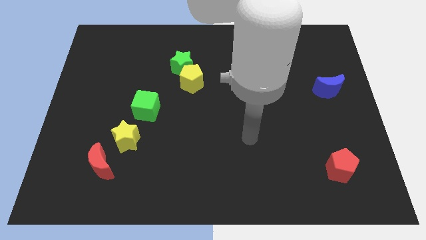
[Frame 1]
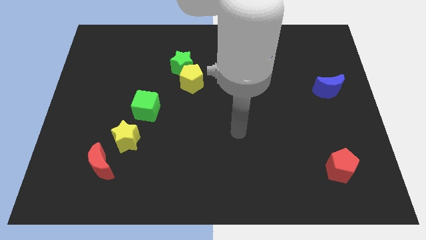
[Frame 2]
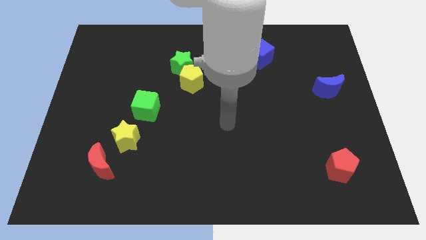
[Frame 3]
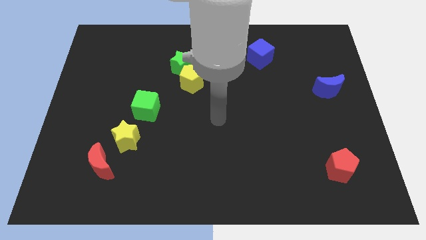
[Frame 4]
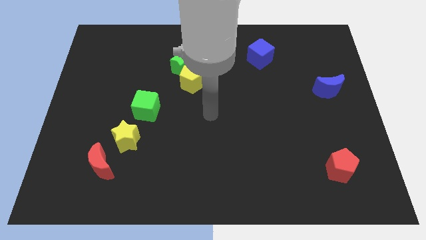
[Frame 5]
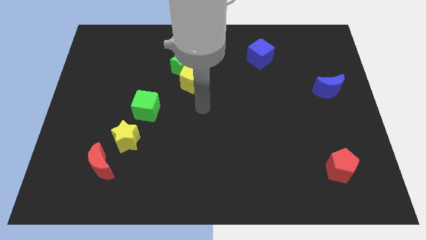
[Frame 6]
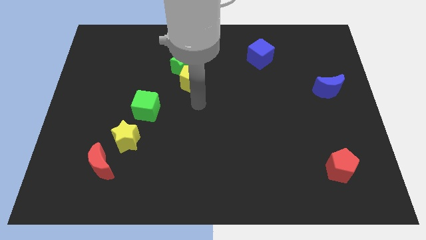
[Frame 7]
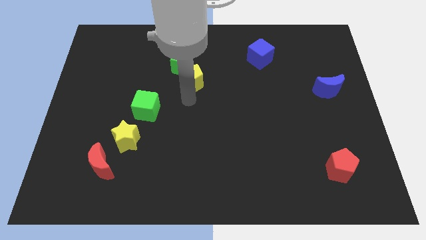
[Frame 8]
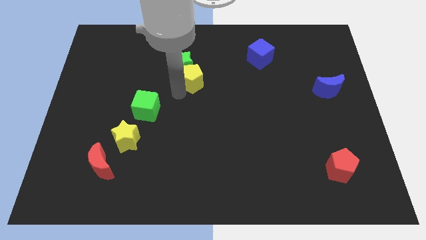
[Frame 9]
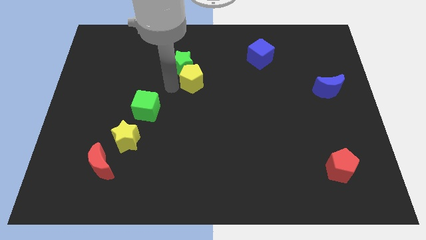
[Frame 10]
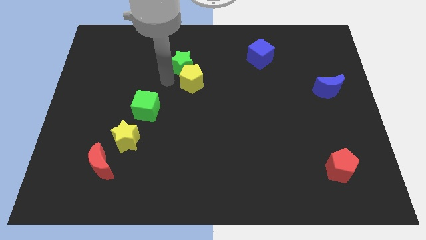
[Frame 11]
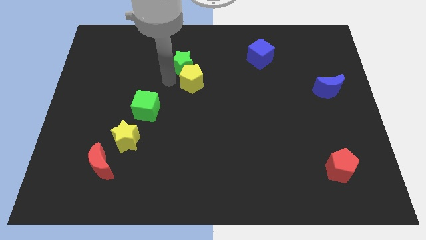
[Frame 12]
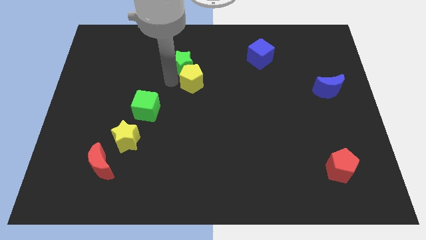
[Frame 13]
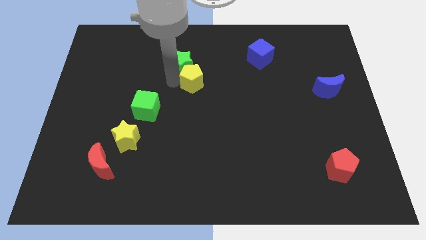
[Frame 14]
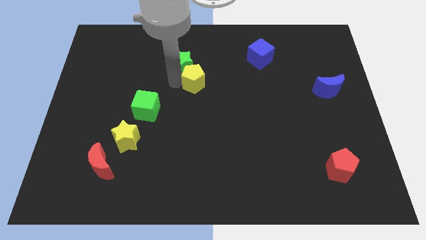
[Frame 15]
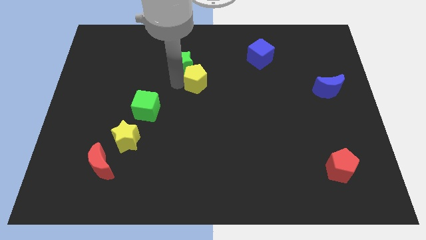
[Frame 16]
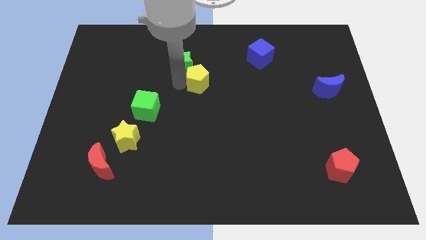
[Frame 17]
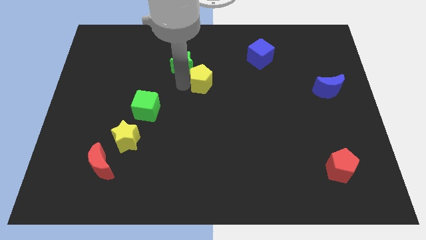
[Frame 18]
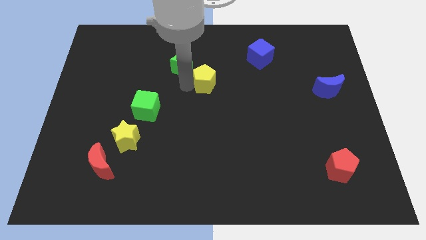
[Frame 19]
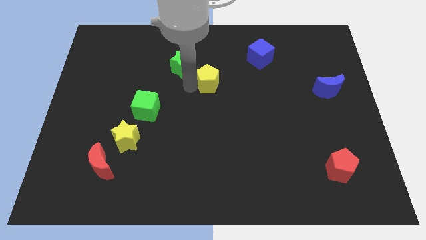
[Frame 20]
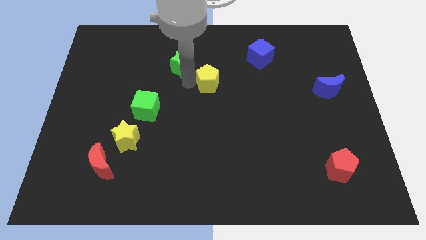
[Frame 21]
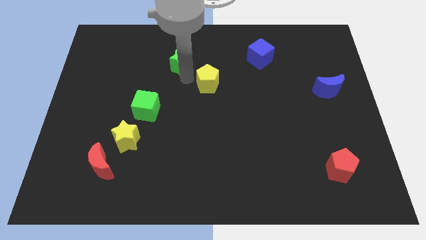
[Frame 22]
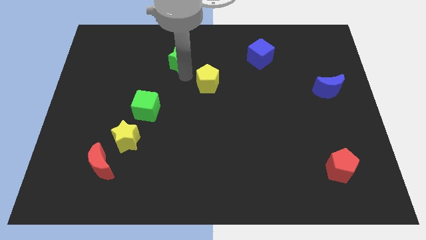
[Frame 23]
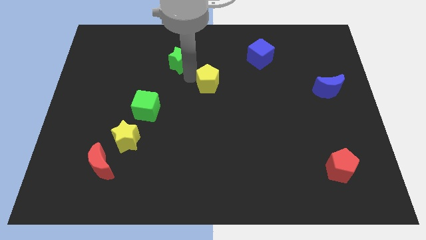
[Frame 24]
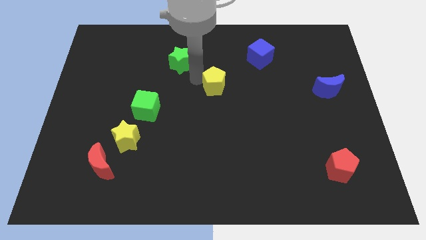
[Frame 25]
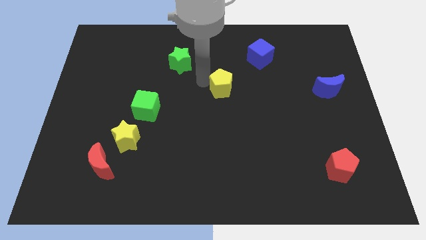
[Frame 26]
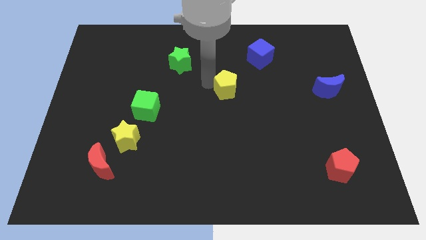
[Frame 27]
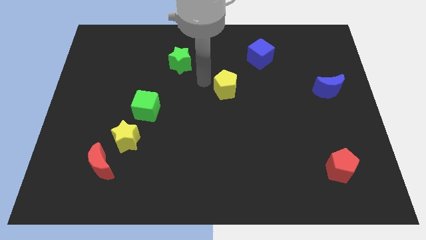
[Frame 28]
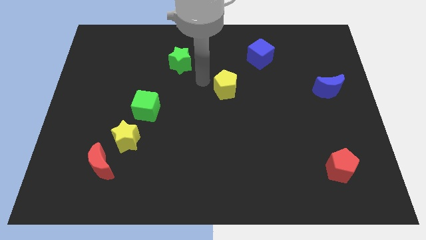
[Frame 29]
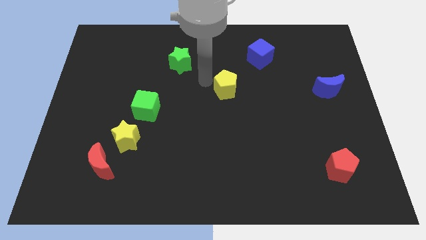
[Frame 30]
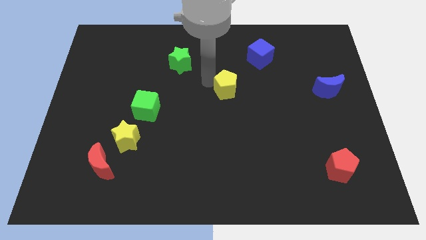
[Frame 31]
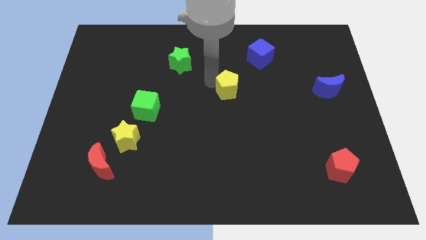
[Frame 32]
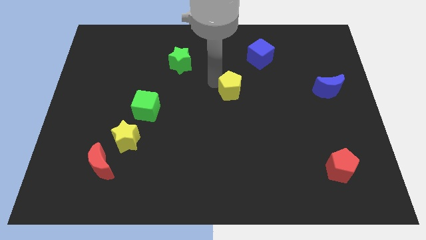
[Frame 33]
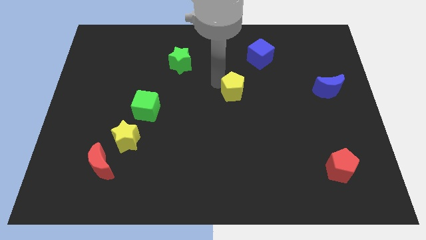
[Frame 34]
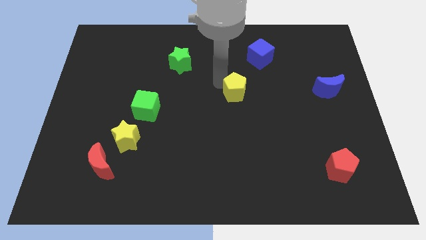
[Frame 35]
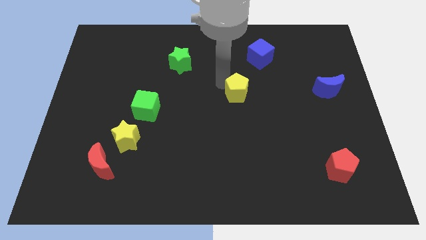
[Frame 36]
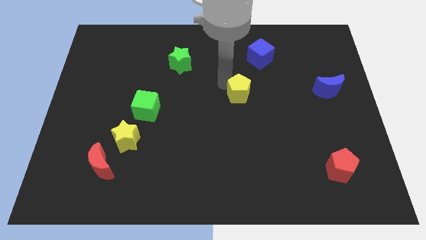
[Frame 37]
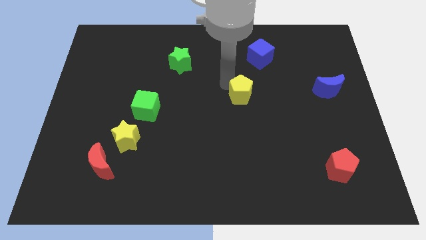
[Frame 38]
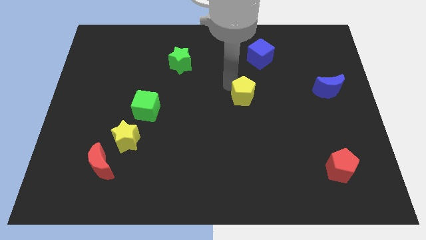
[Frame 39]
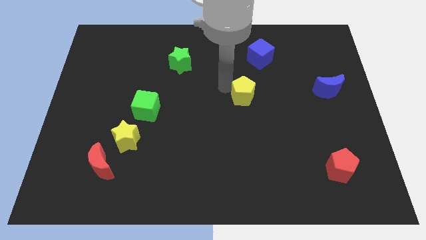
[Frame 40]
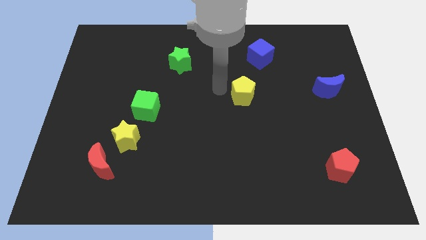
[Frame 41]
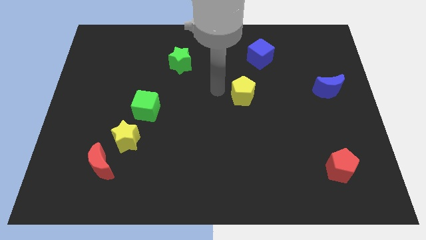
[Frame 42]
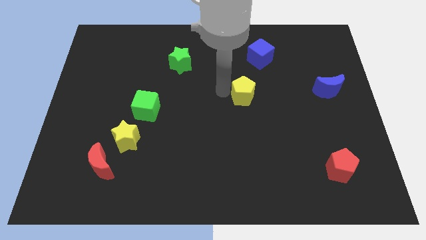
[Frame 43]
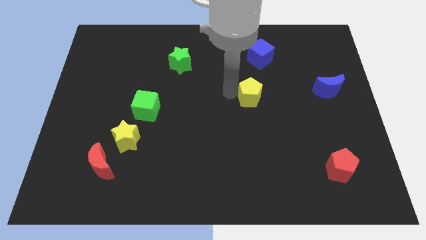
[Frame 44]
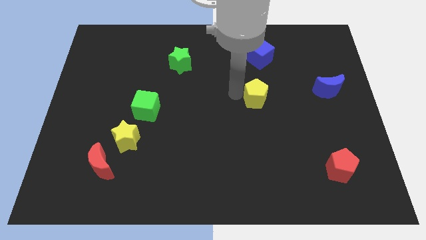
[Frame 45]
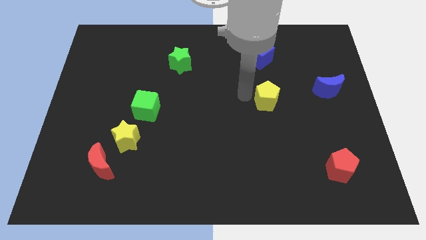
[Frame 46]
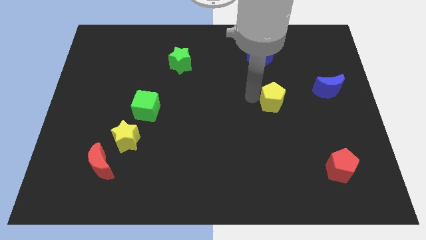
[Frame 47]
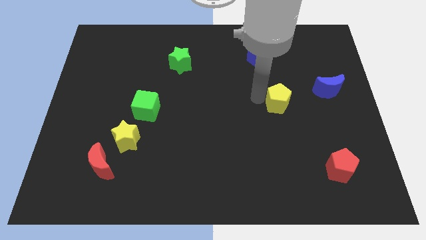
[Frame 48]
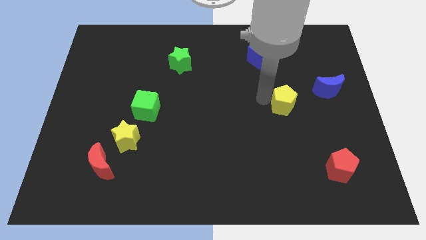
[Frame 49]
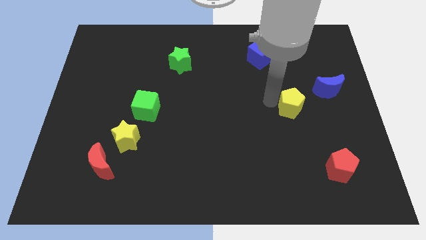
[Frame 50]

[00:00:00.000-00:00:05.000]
move the yellow pentagon to the bottom left side of the blue moon

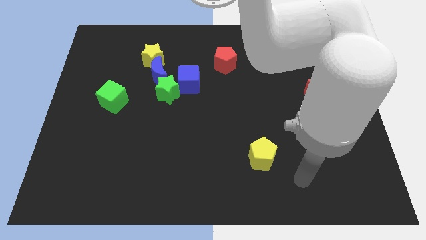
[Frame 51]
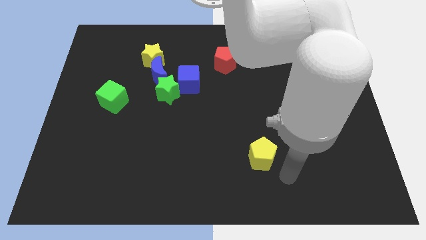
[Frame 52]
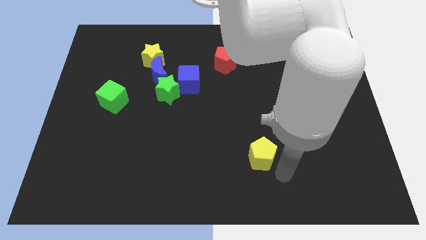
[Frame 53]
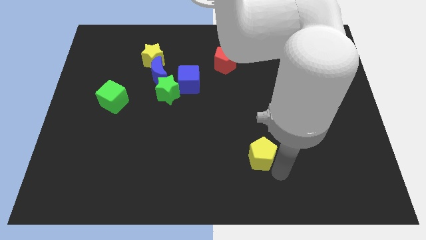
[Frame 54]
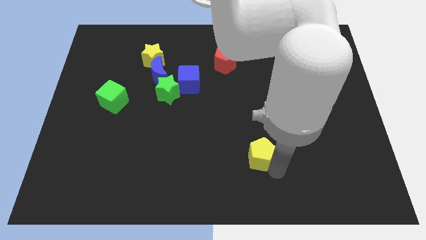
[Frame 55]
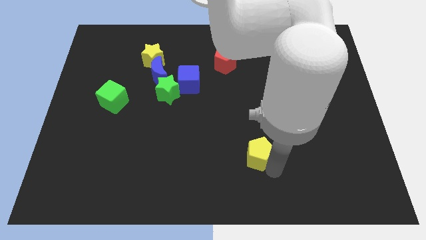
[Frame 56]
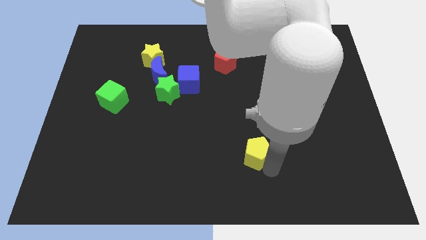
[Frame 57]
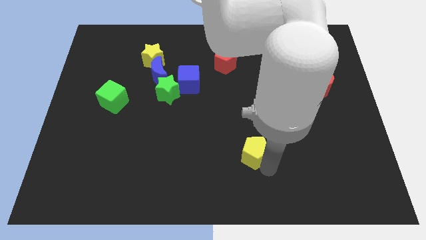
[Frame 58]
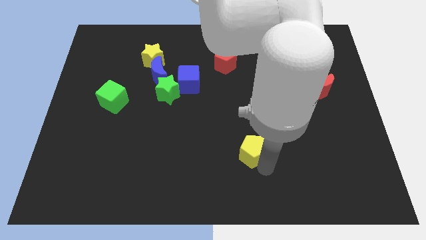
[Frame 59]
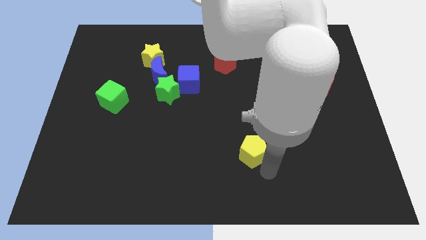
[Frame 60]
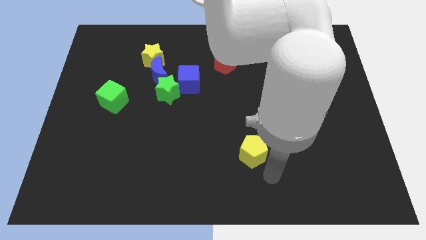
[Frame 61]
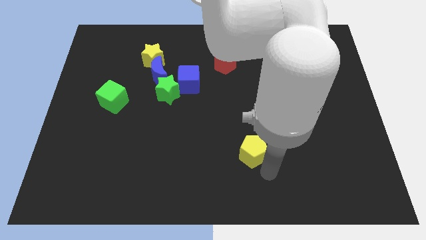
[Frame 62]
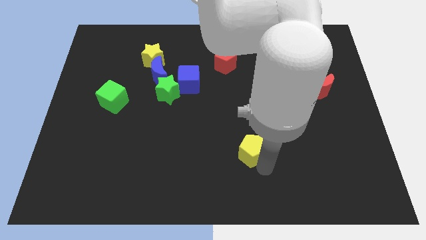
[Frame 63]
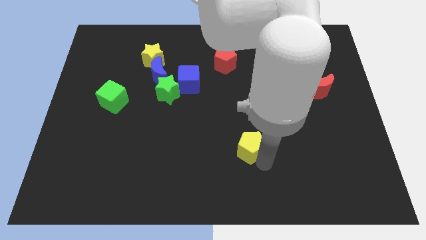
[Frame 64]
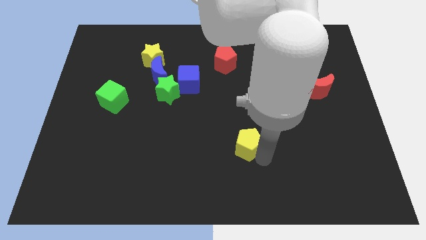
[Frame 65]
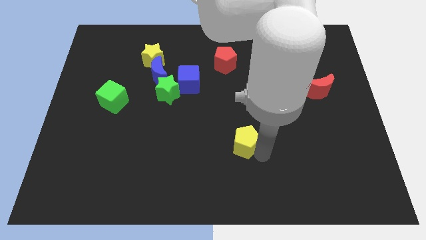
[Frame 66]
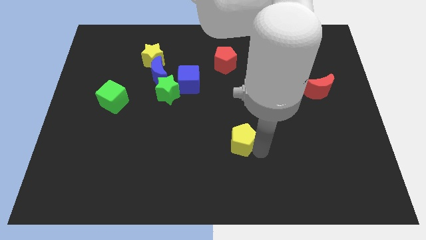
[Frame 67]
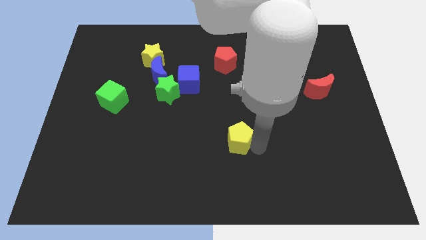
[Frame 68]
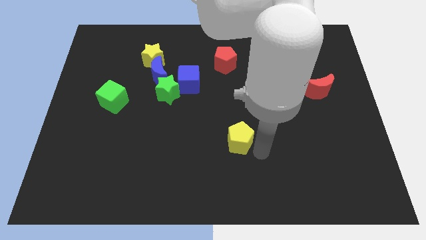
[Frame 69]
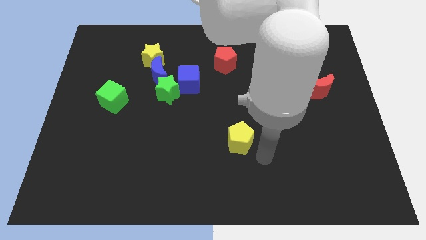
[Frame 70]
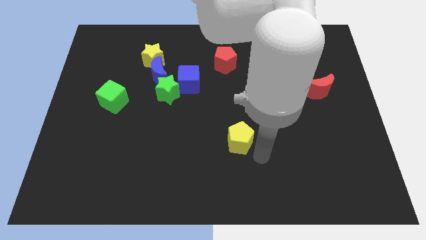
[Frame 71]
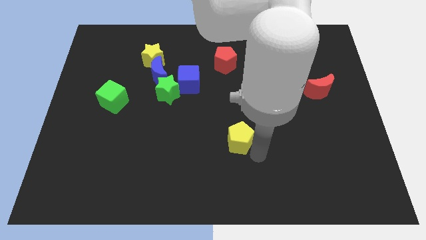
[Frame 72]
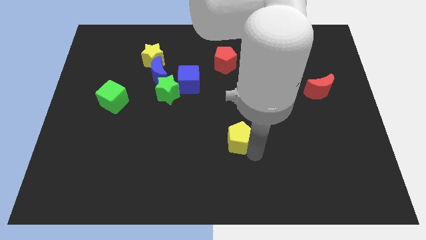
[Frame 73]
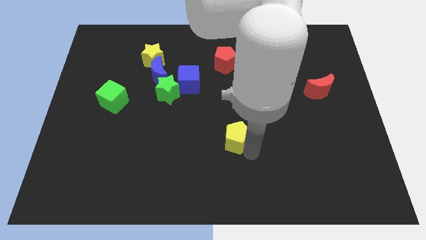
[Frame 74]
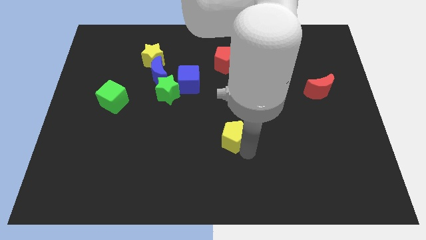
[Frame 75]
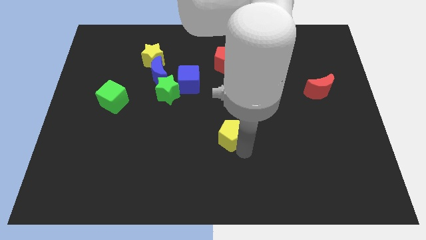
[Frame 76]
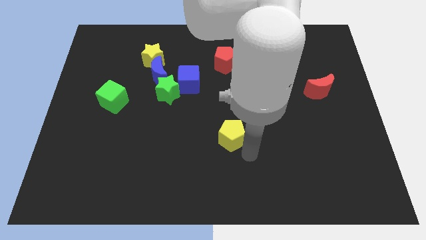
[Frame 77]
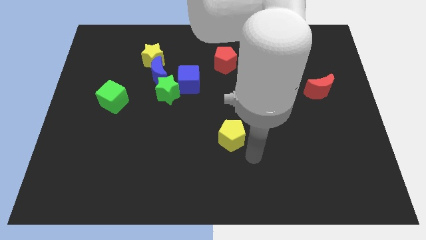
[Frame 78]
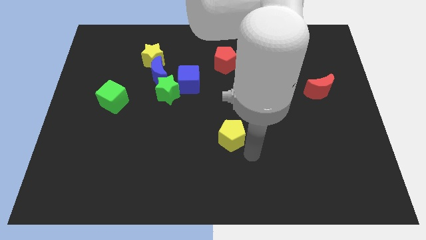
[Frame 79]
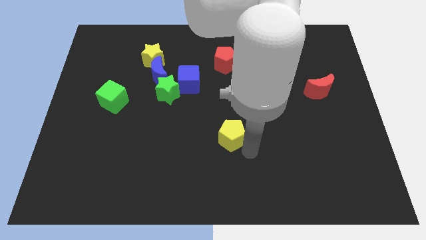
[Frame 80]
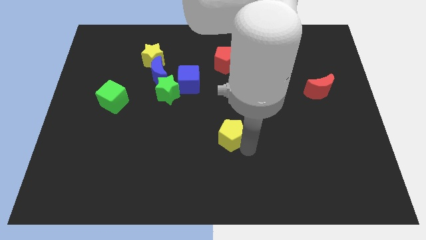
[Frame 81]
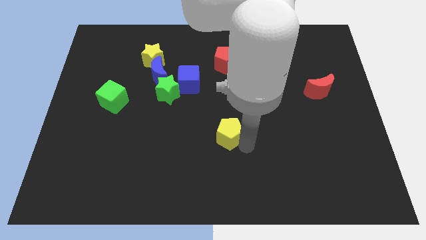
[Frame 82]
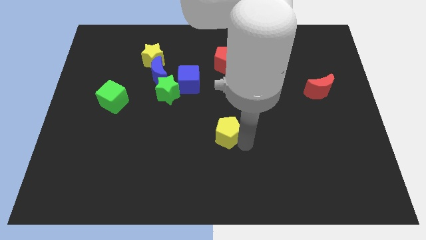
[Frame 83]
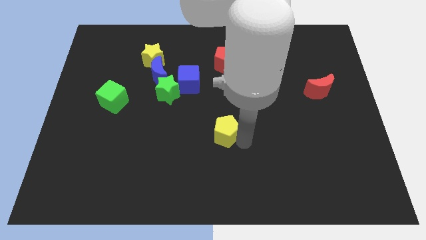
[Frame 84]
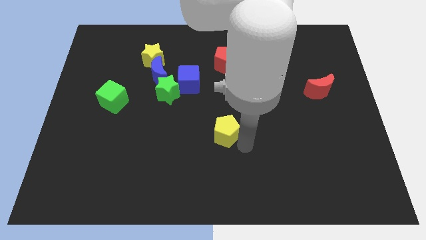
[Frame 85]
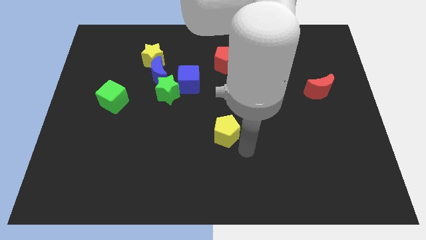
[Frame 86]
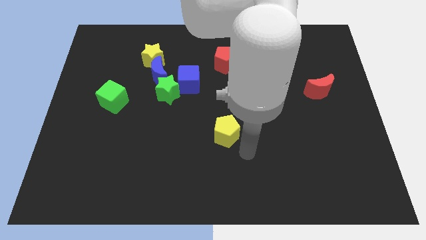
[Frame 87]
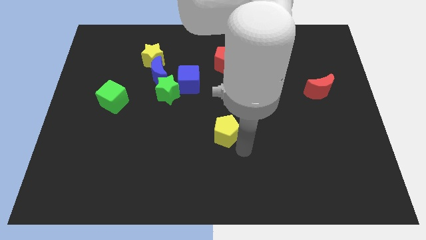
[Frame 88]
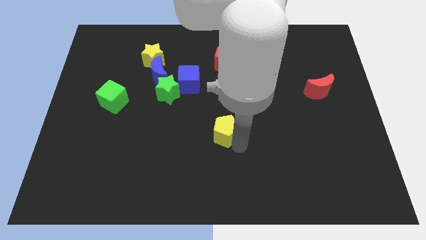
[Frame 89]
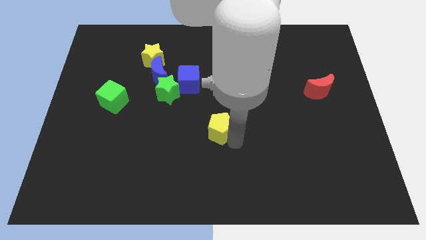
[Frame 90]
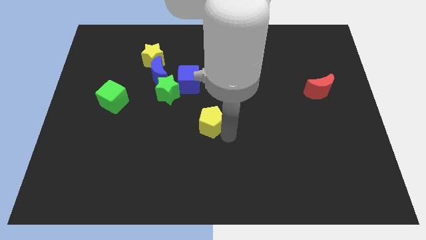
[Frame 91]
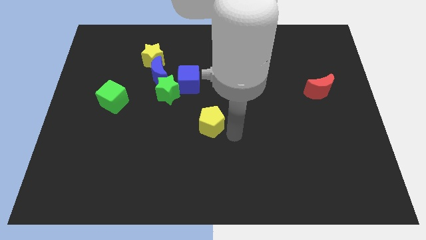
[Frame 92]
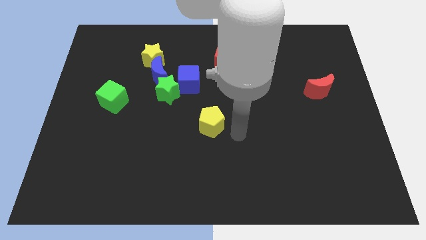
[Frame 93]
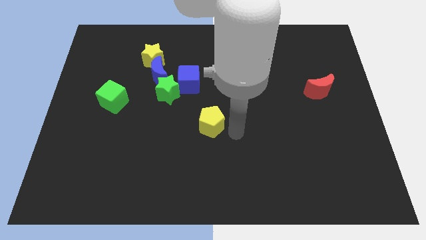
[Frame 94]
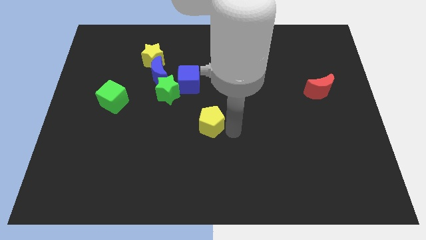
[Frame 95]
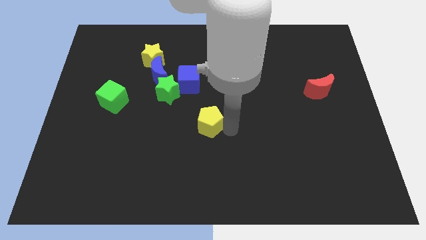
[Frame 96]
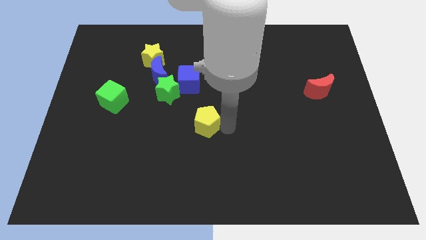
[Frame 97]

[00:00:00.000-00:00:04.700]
move the yellow pentagon to the bottom side of the blue cube
